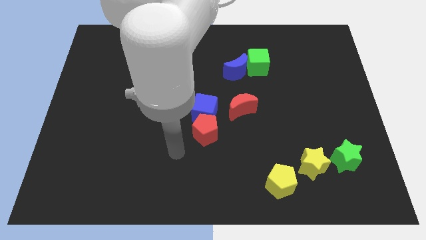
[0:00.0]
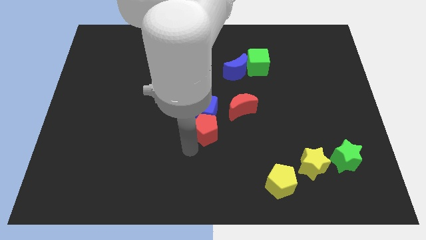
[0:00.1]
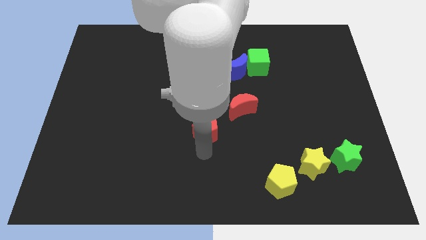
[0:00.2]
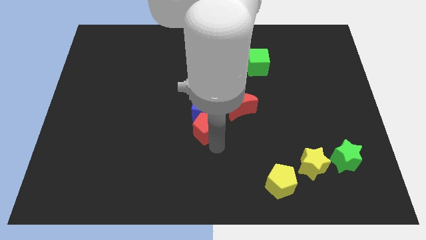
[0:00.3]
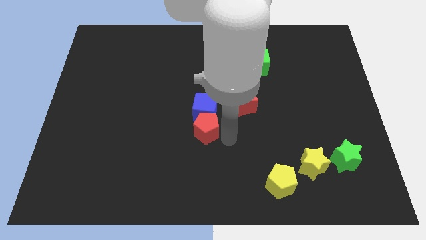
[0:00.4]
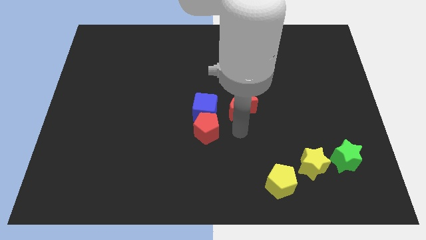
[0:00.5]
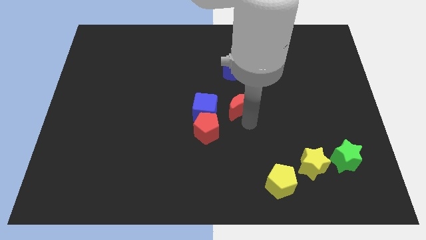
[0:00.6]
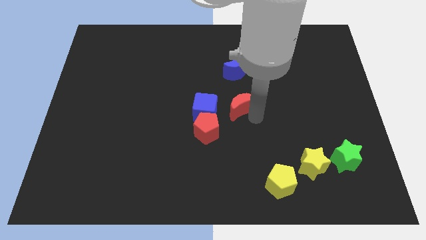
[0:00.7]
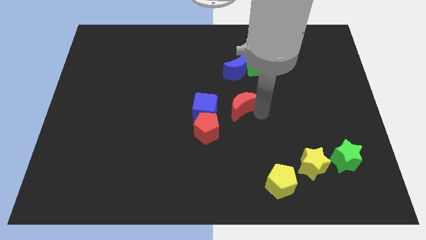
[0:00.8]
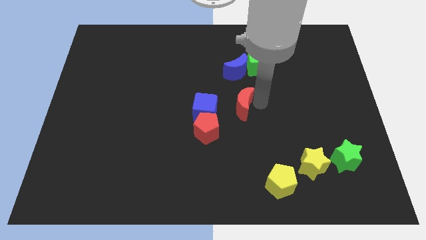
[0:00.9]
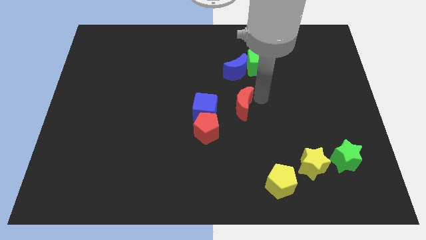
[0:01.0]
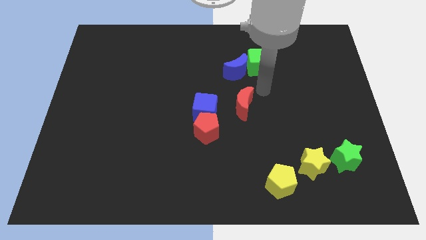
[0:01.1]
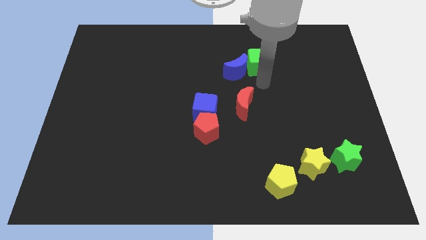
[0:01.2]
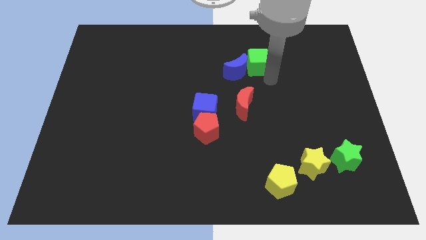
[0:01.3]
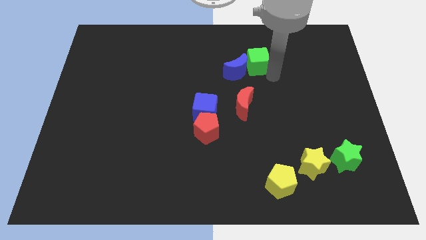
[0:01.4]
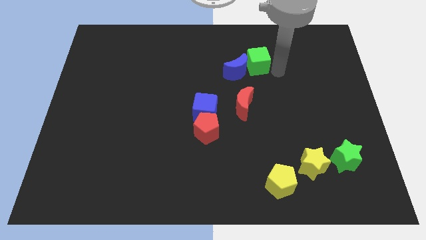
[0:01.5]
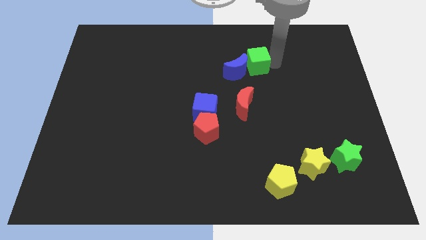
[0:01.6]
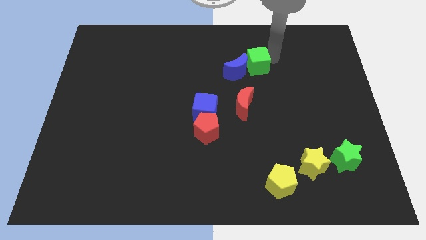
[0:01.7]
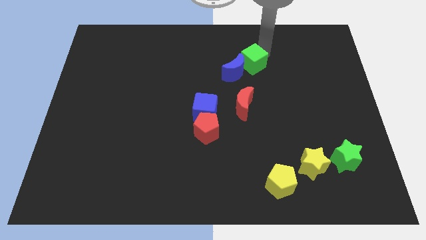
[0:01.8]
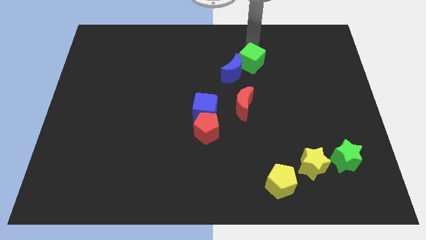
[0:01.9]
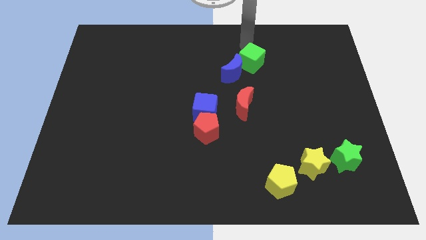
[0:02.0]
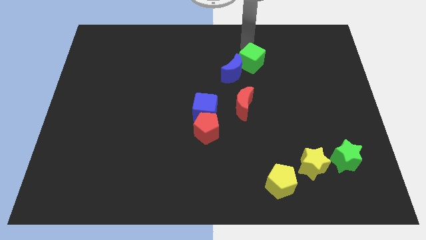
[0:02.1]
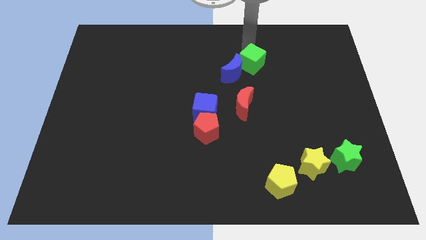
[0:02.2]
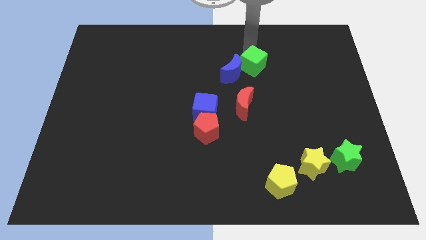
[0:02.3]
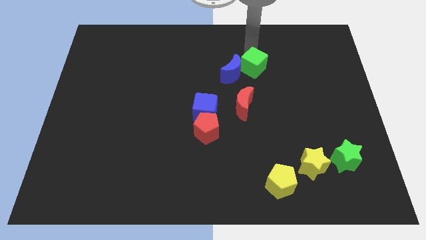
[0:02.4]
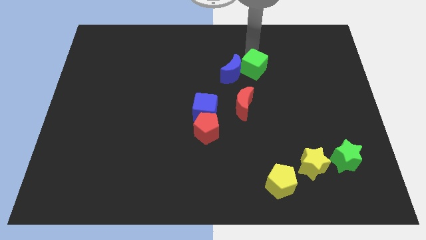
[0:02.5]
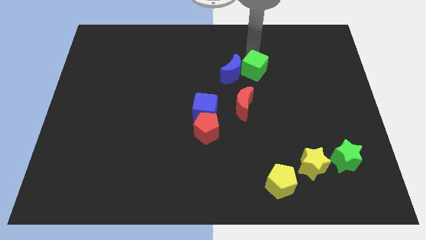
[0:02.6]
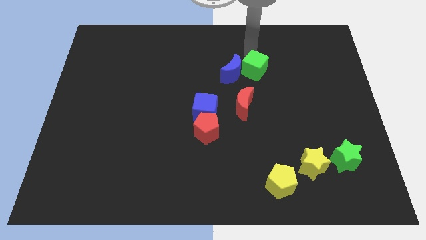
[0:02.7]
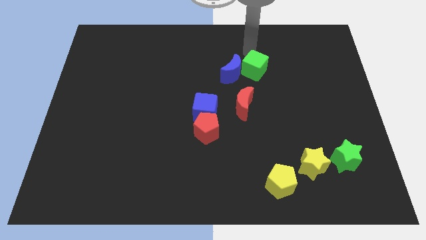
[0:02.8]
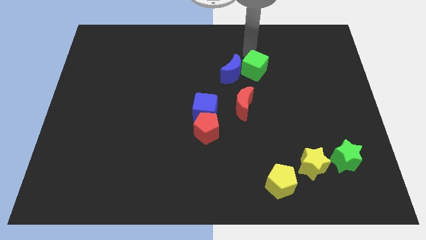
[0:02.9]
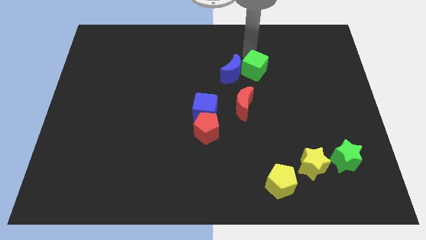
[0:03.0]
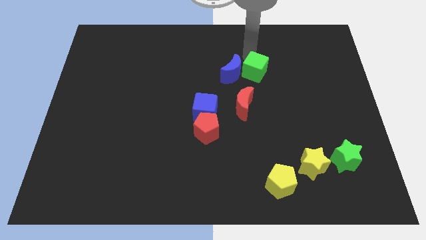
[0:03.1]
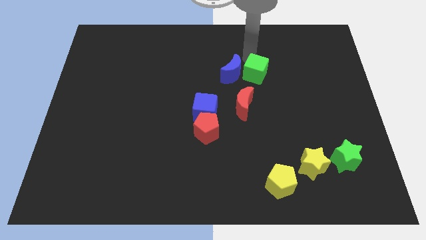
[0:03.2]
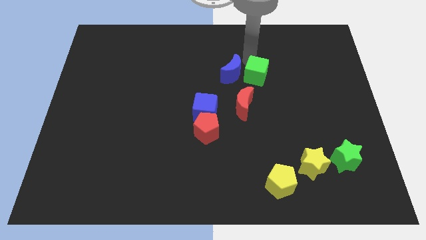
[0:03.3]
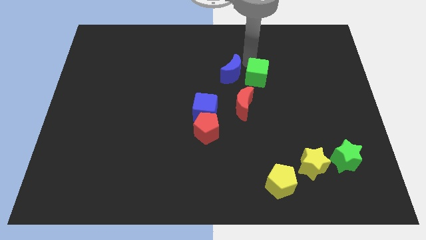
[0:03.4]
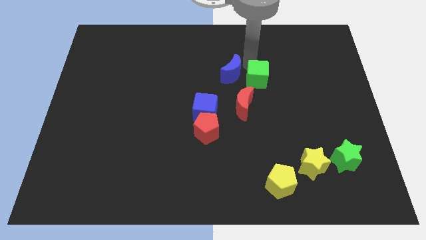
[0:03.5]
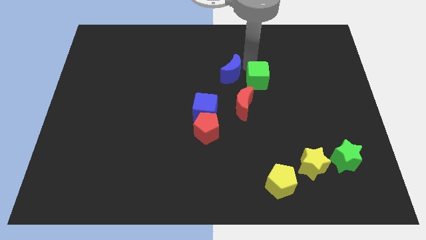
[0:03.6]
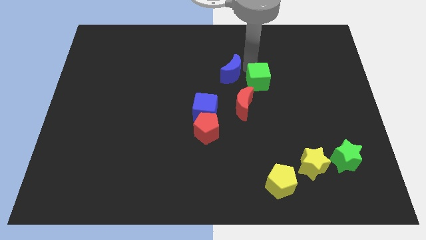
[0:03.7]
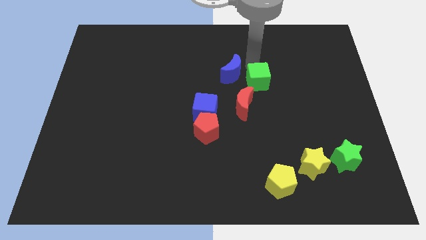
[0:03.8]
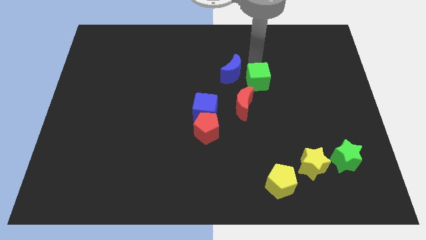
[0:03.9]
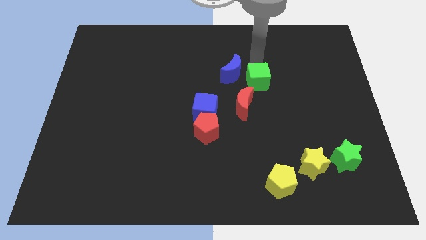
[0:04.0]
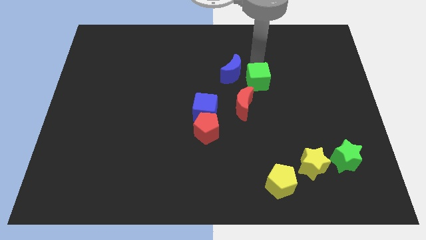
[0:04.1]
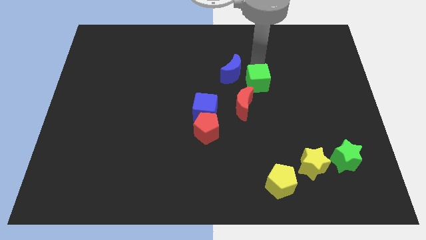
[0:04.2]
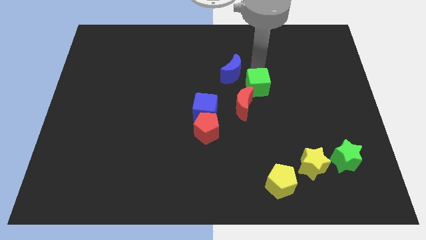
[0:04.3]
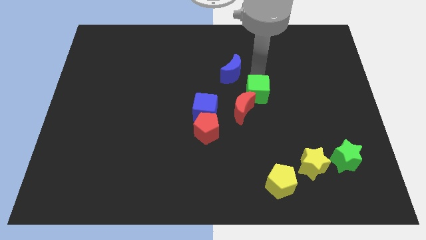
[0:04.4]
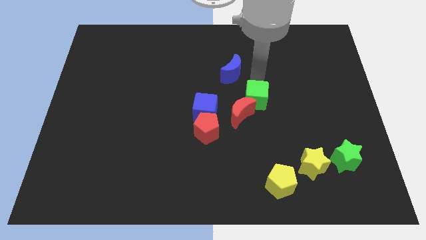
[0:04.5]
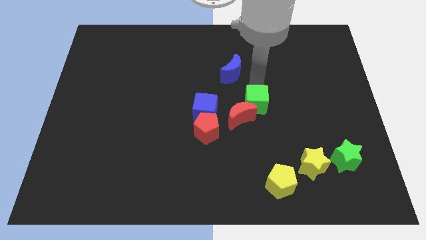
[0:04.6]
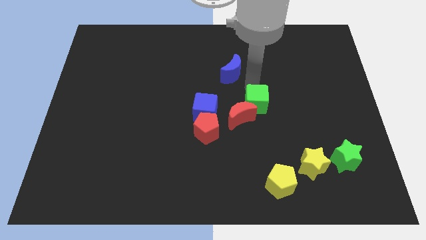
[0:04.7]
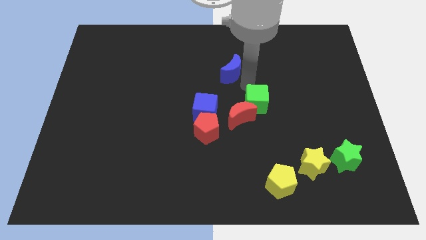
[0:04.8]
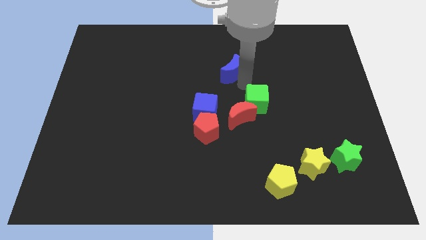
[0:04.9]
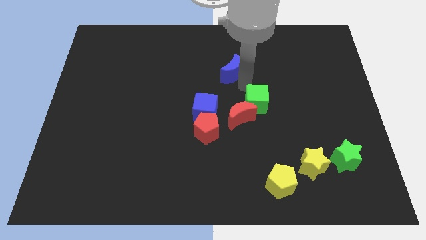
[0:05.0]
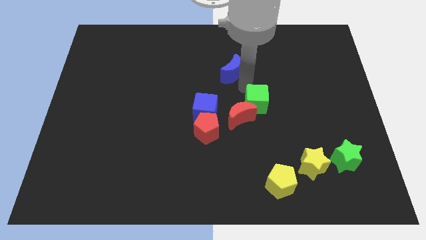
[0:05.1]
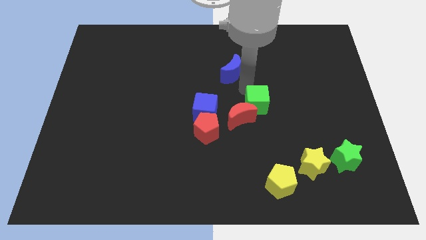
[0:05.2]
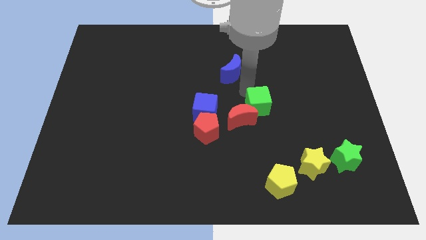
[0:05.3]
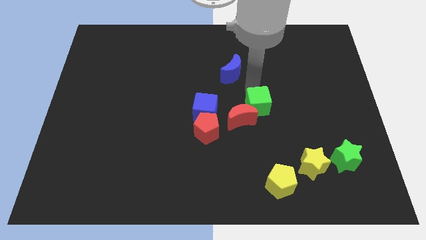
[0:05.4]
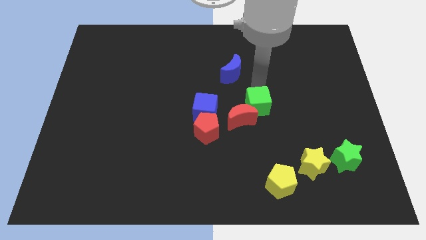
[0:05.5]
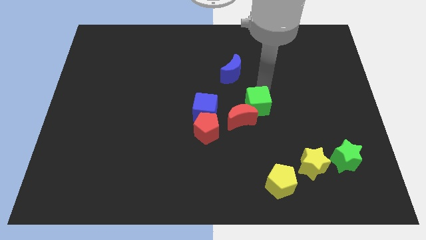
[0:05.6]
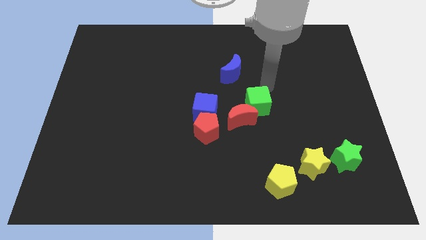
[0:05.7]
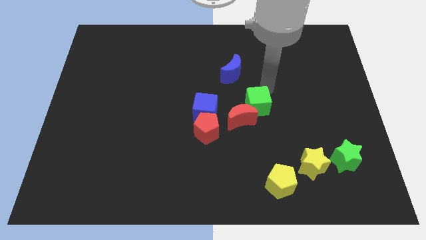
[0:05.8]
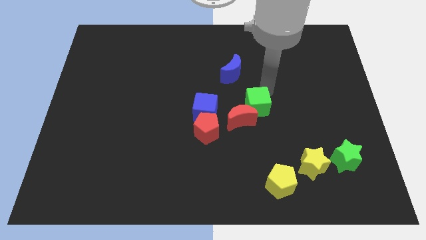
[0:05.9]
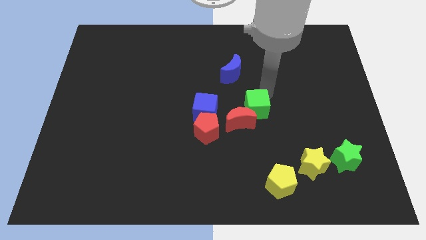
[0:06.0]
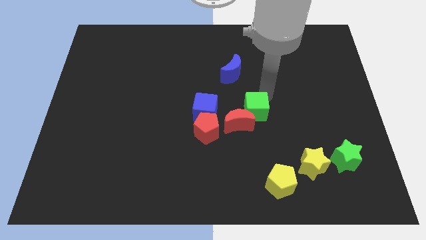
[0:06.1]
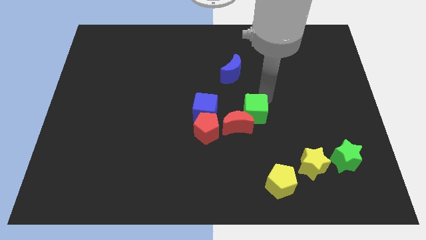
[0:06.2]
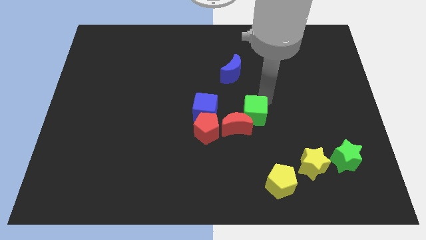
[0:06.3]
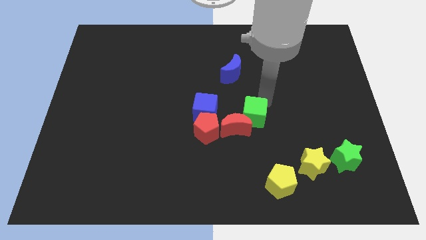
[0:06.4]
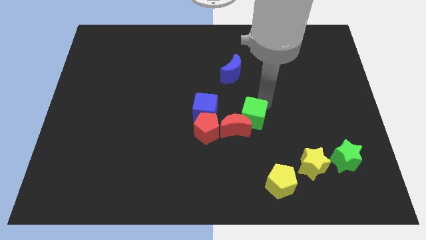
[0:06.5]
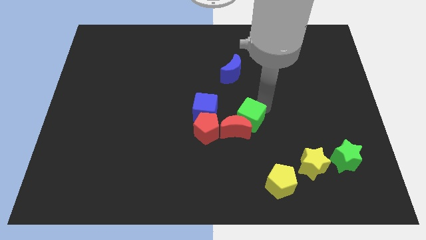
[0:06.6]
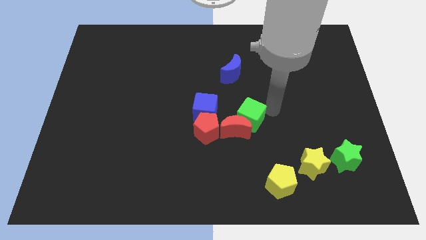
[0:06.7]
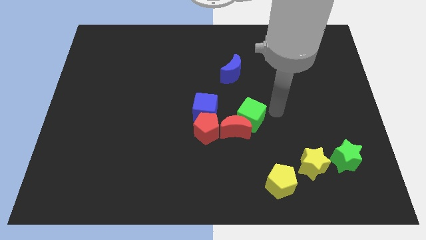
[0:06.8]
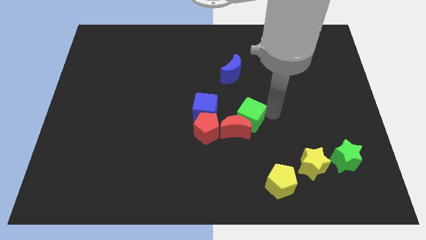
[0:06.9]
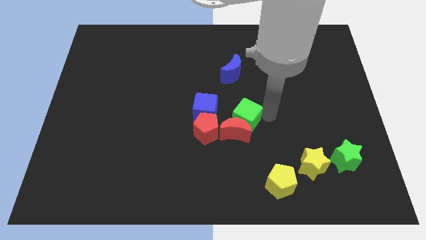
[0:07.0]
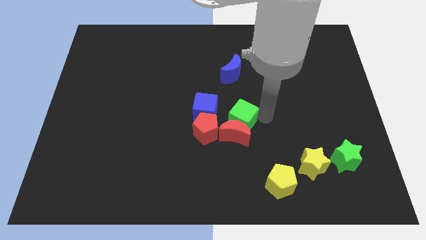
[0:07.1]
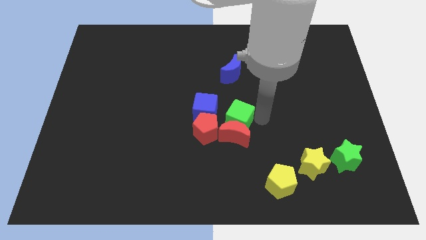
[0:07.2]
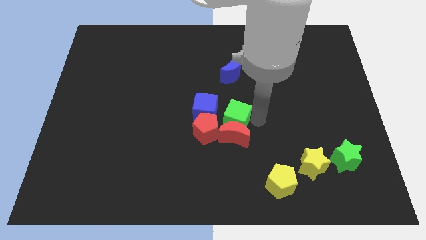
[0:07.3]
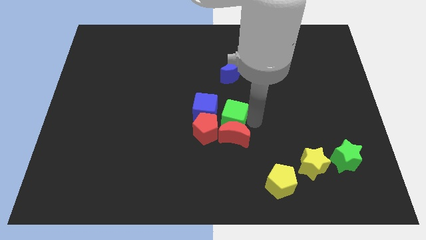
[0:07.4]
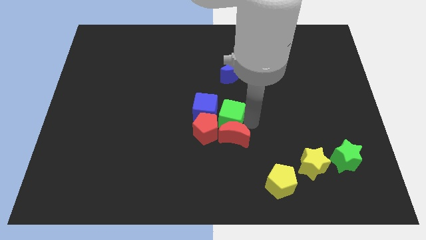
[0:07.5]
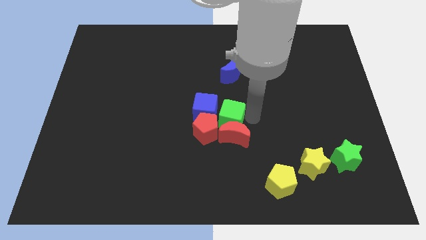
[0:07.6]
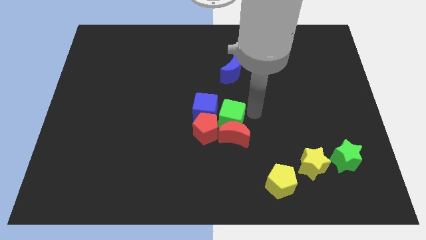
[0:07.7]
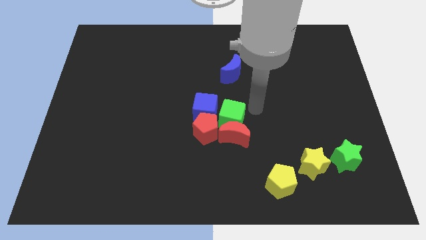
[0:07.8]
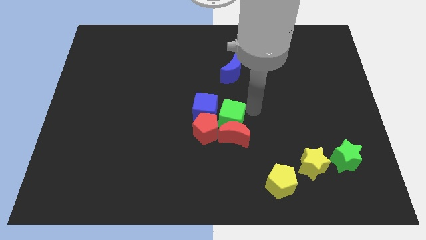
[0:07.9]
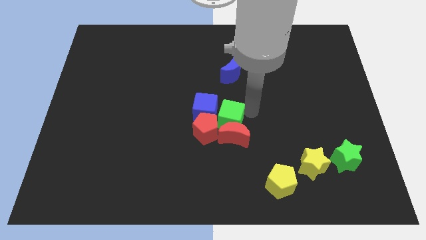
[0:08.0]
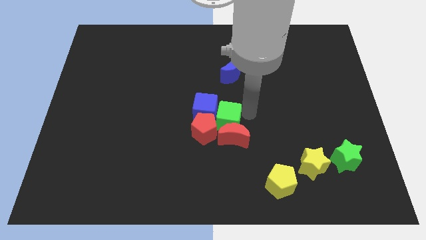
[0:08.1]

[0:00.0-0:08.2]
push the green cube towards the red pentagon
